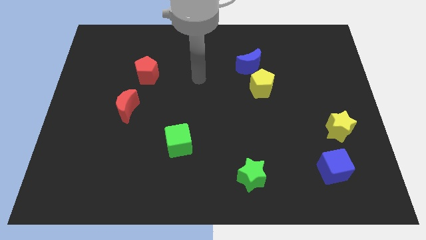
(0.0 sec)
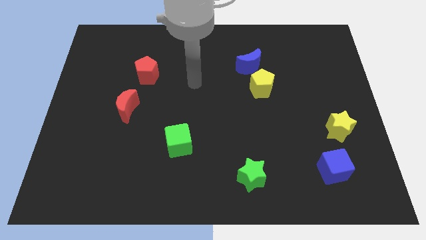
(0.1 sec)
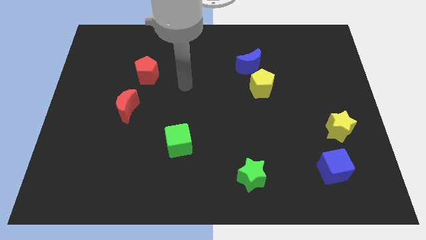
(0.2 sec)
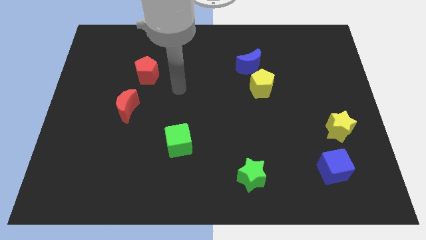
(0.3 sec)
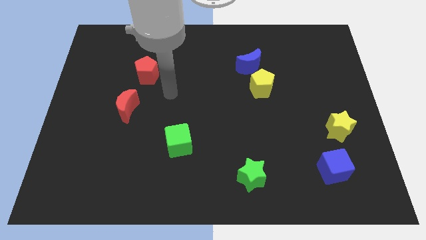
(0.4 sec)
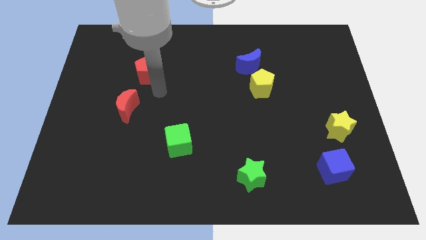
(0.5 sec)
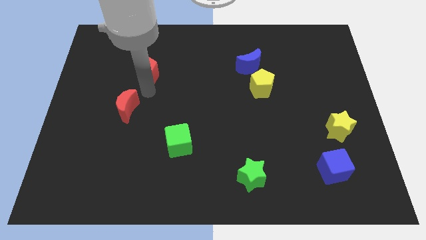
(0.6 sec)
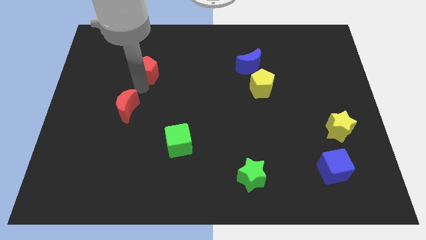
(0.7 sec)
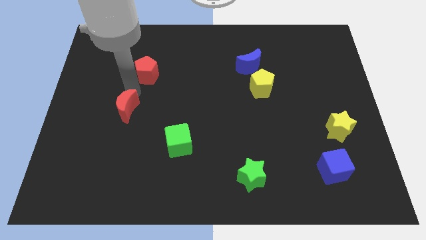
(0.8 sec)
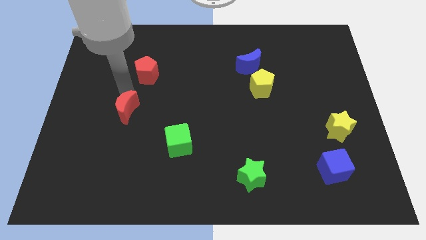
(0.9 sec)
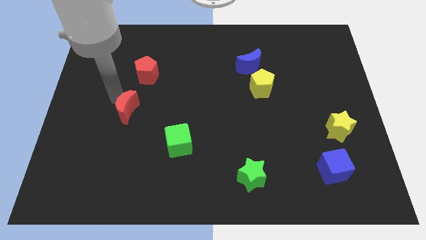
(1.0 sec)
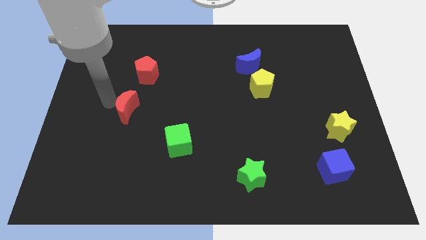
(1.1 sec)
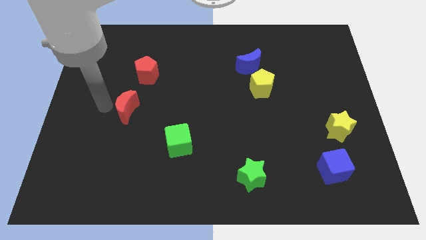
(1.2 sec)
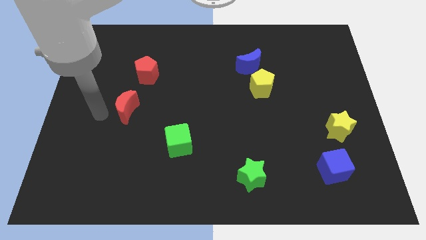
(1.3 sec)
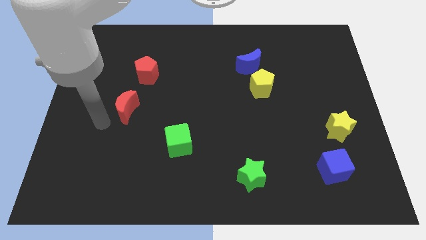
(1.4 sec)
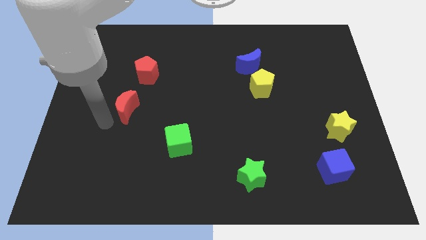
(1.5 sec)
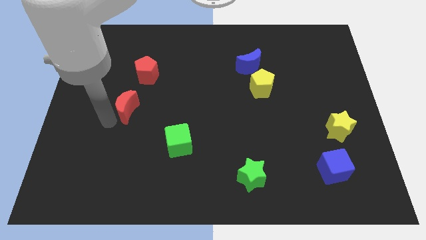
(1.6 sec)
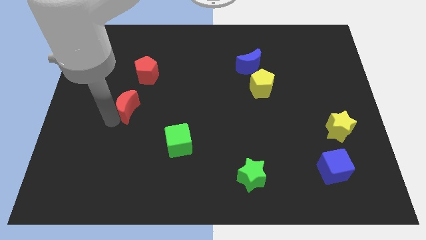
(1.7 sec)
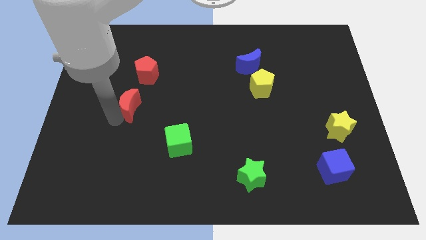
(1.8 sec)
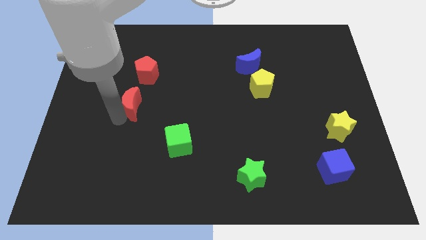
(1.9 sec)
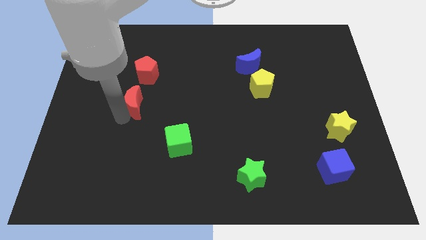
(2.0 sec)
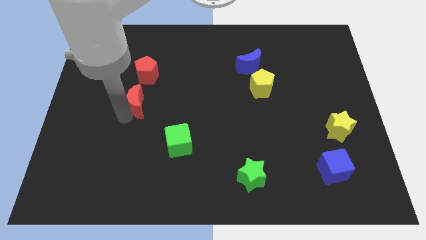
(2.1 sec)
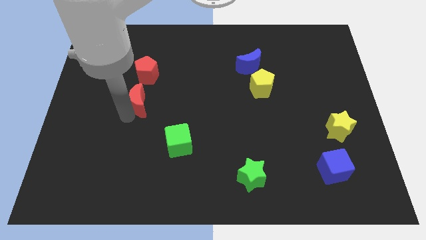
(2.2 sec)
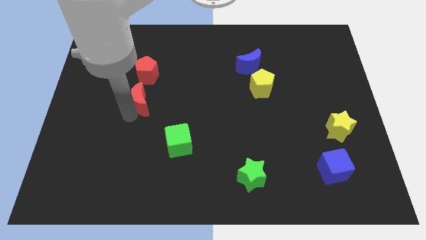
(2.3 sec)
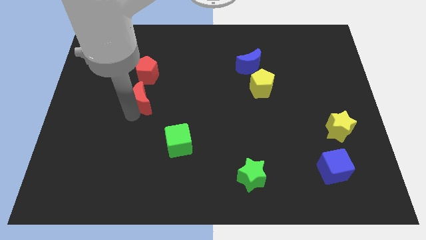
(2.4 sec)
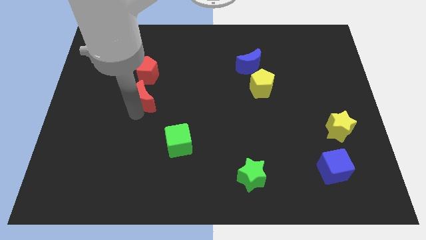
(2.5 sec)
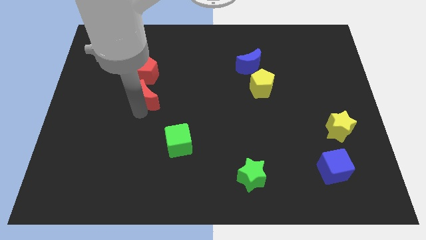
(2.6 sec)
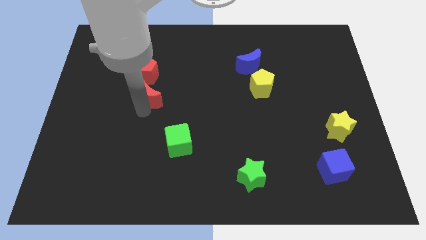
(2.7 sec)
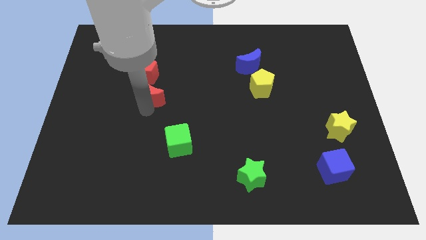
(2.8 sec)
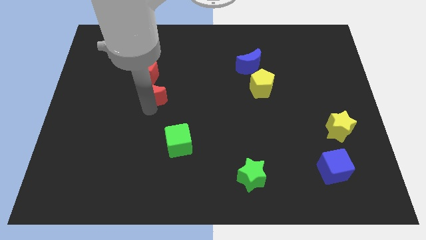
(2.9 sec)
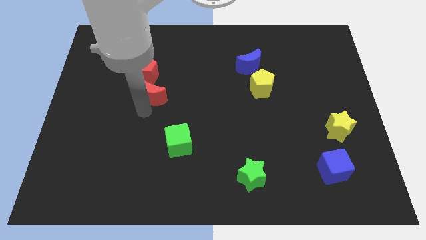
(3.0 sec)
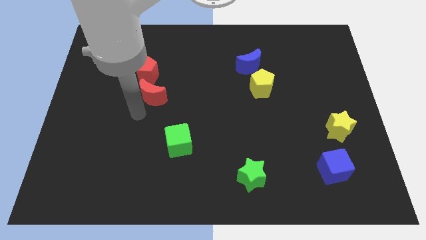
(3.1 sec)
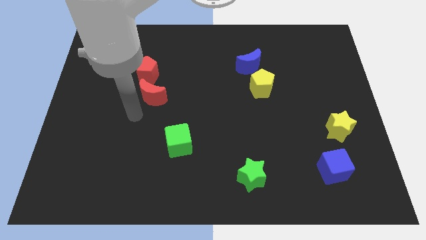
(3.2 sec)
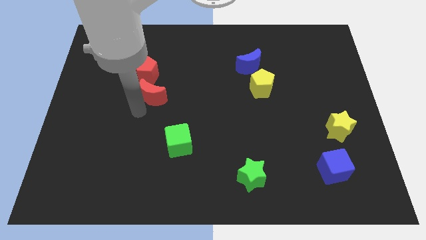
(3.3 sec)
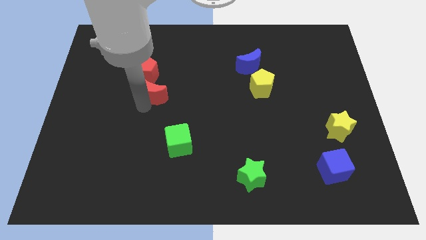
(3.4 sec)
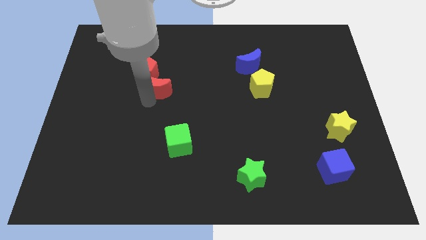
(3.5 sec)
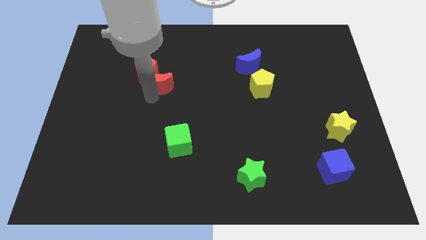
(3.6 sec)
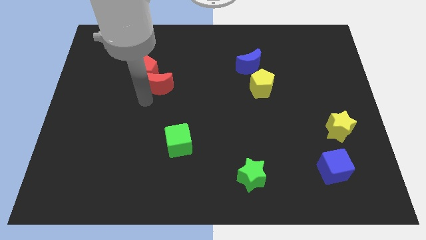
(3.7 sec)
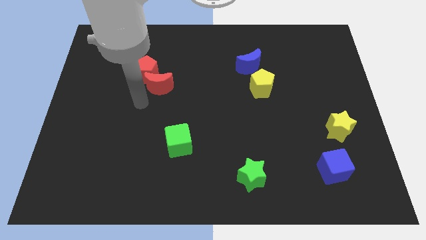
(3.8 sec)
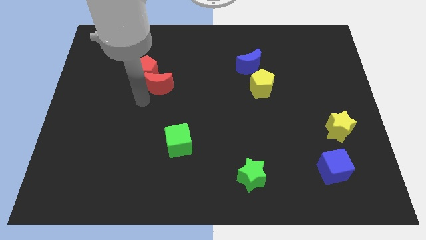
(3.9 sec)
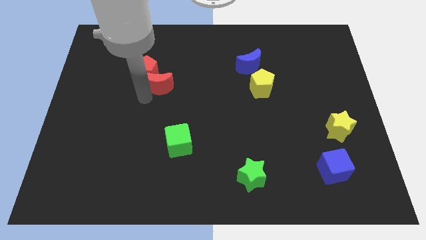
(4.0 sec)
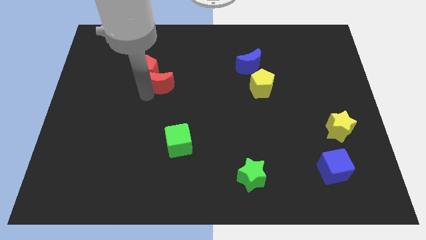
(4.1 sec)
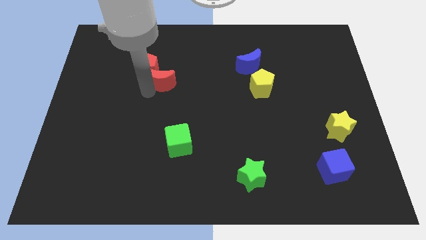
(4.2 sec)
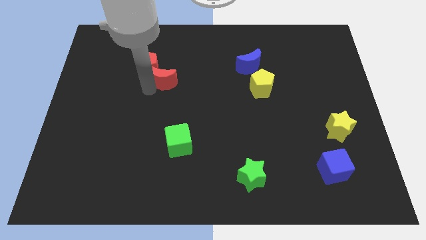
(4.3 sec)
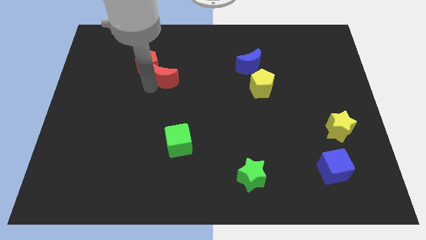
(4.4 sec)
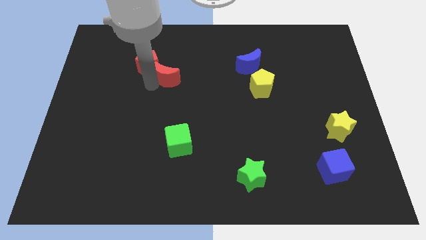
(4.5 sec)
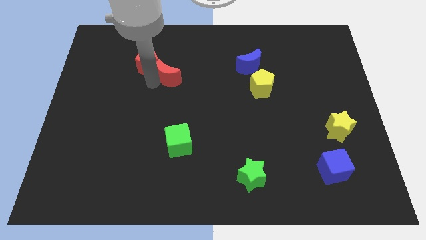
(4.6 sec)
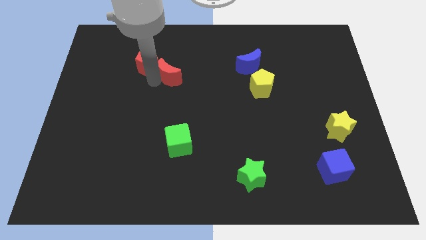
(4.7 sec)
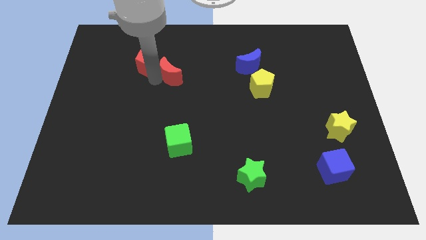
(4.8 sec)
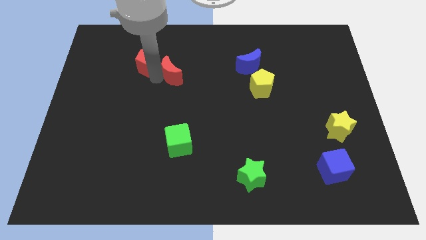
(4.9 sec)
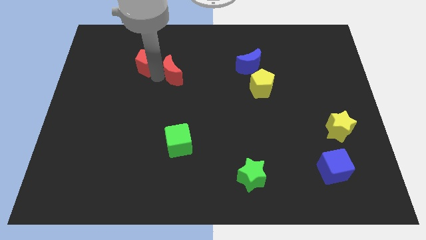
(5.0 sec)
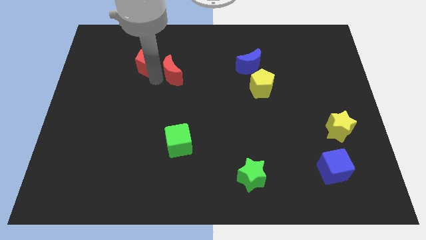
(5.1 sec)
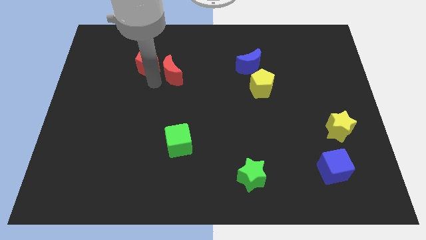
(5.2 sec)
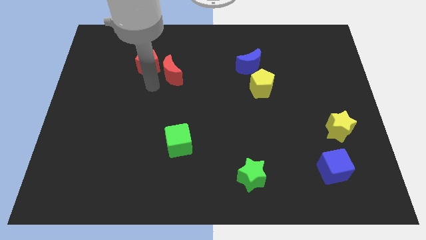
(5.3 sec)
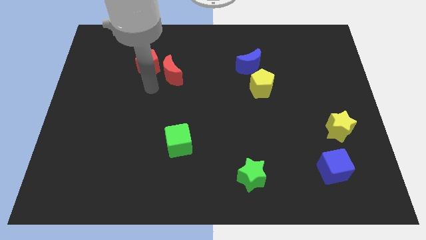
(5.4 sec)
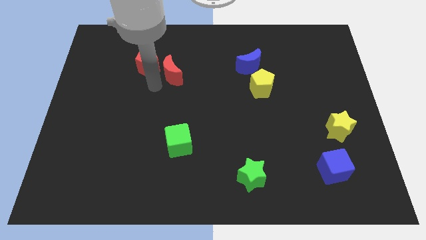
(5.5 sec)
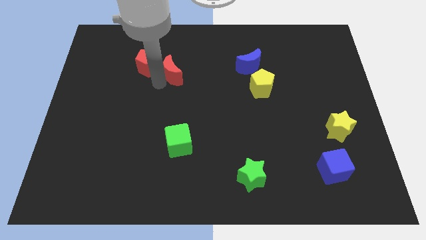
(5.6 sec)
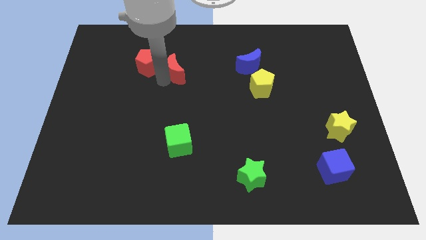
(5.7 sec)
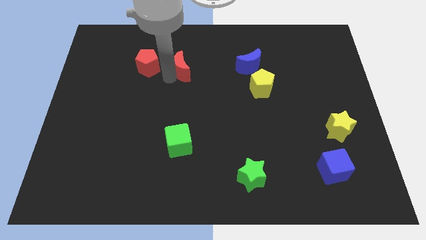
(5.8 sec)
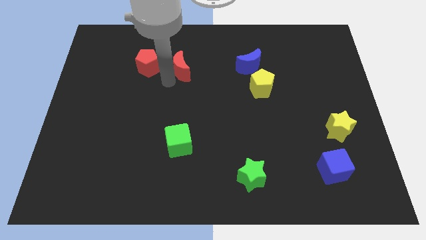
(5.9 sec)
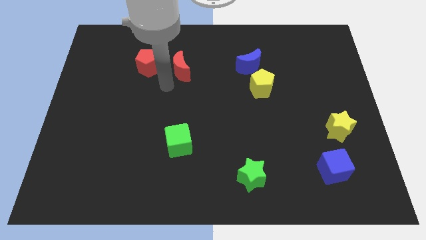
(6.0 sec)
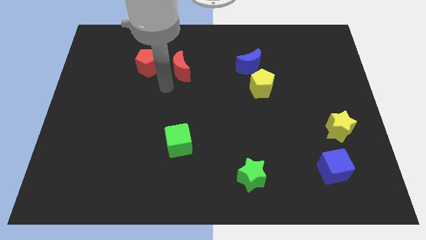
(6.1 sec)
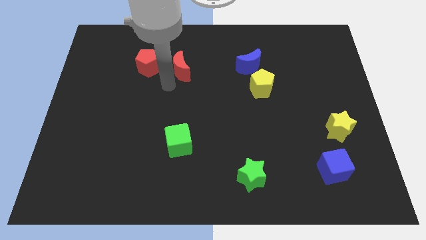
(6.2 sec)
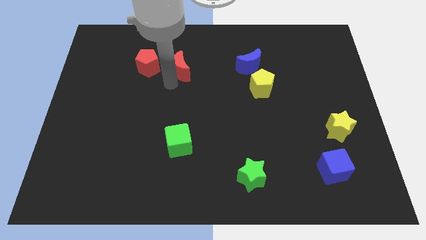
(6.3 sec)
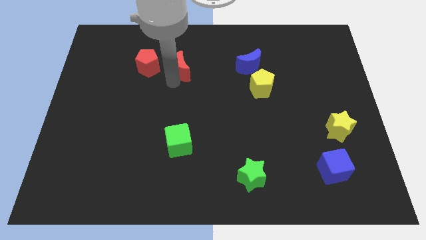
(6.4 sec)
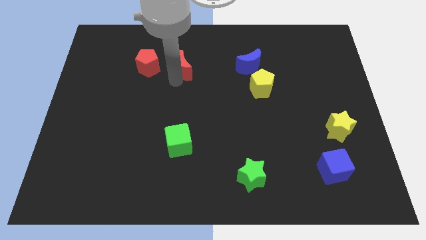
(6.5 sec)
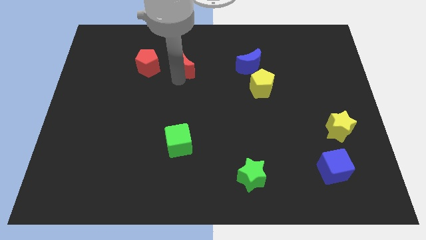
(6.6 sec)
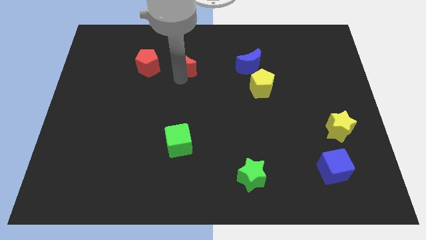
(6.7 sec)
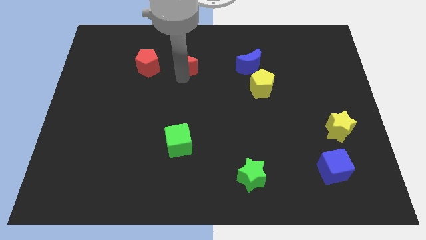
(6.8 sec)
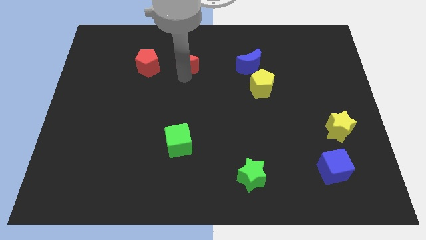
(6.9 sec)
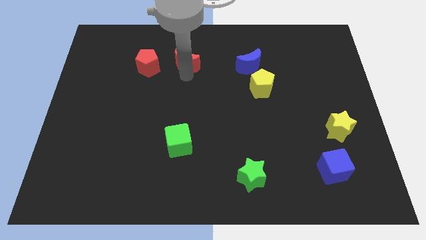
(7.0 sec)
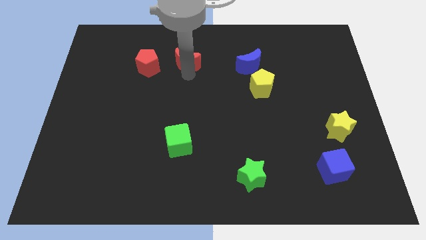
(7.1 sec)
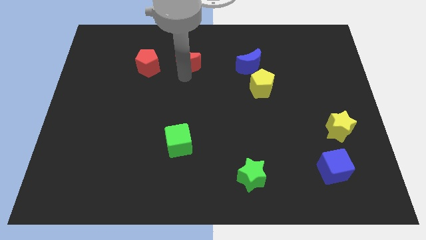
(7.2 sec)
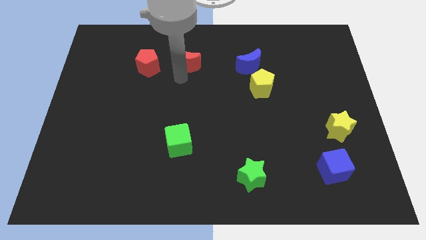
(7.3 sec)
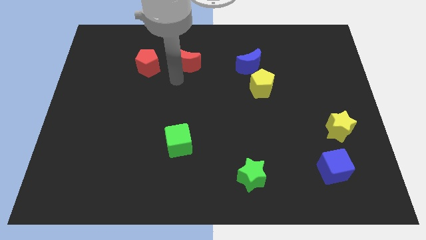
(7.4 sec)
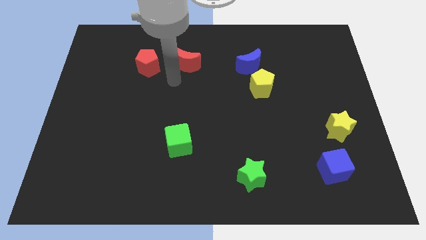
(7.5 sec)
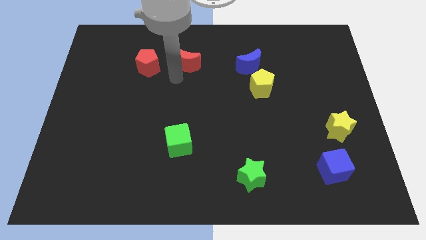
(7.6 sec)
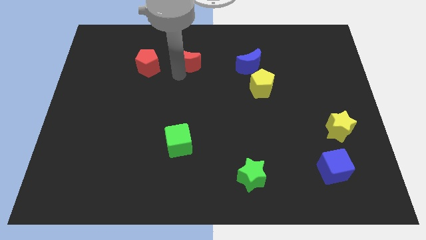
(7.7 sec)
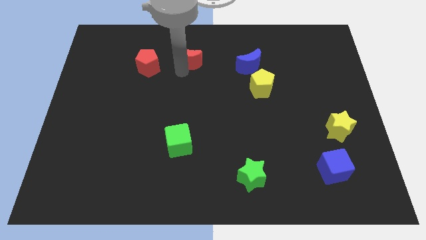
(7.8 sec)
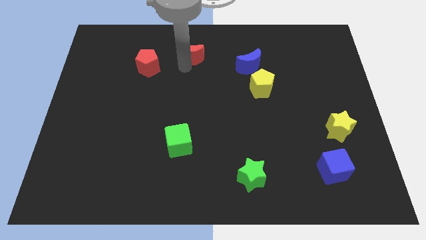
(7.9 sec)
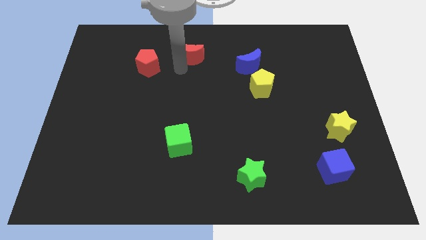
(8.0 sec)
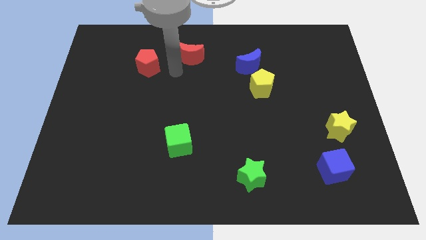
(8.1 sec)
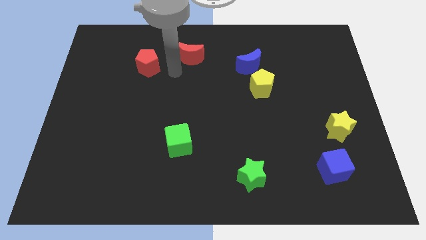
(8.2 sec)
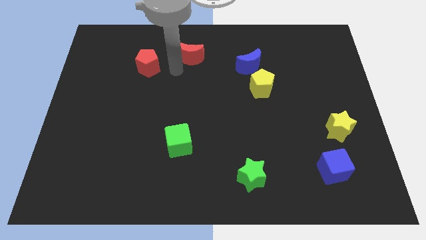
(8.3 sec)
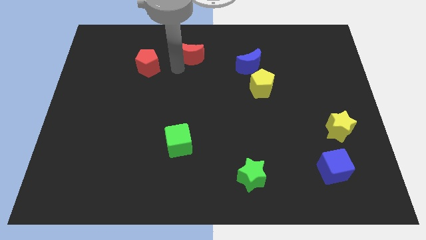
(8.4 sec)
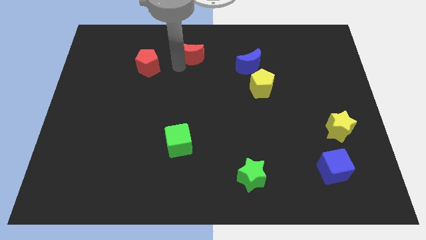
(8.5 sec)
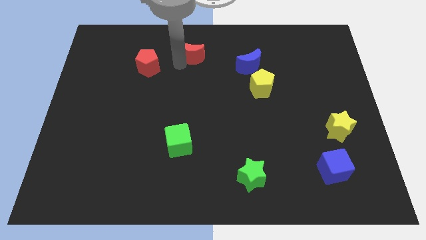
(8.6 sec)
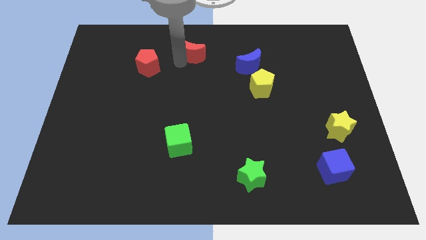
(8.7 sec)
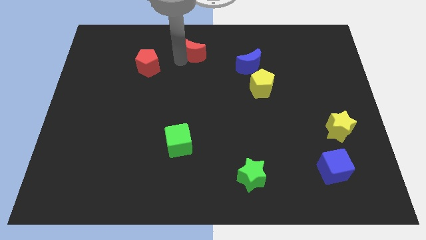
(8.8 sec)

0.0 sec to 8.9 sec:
move the red moon to the top side
